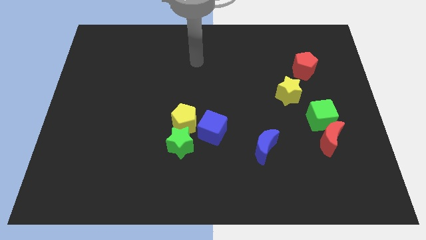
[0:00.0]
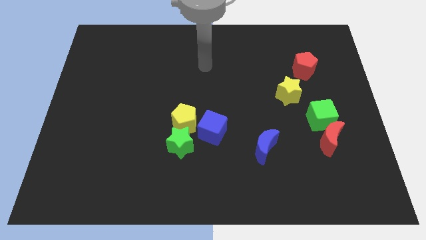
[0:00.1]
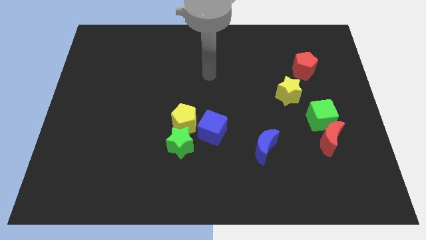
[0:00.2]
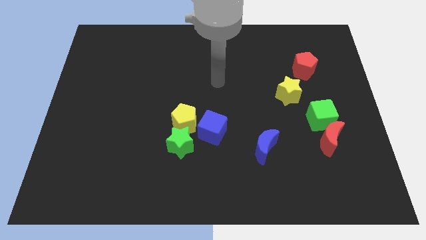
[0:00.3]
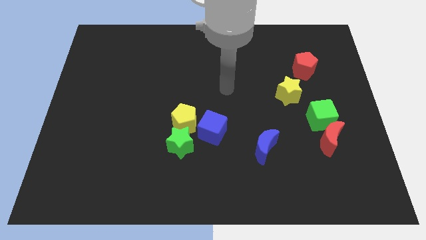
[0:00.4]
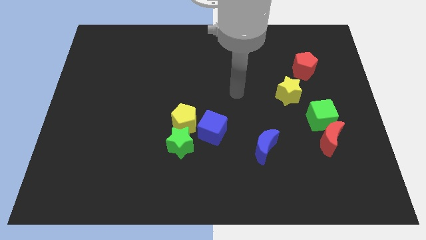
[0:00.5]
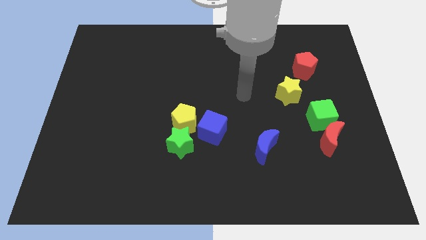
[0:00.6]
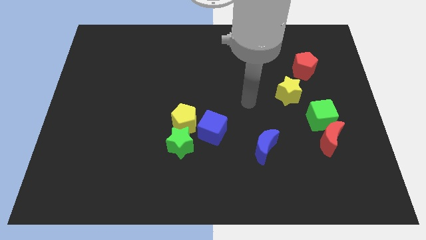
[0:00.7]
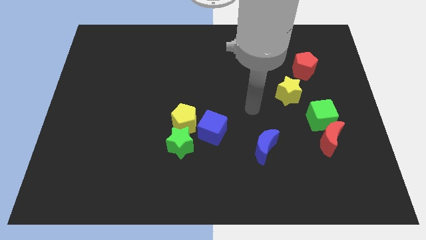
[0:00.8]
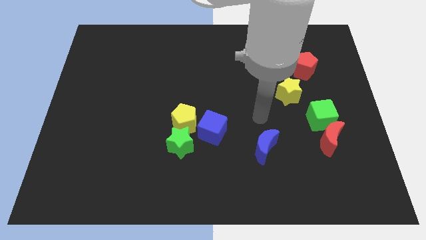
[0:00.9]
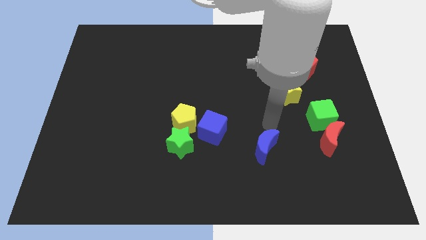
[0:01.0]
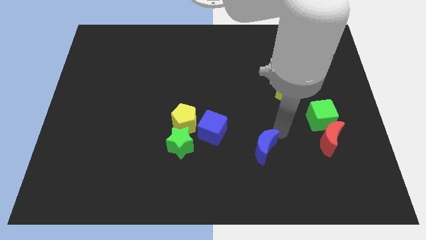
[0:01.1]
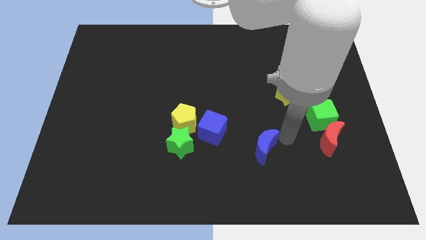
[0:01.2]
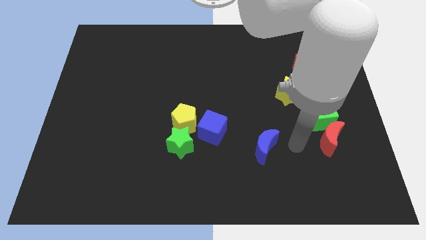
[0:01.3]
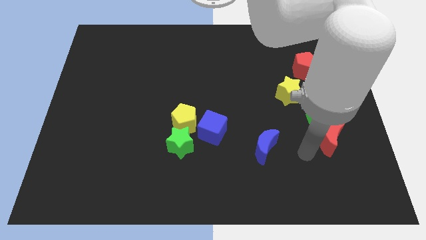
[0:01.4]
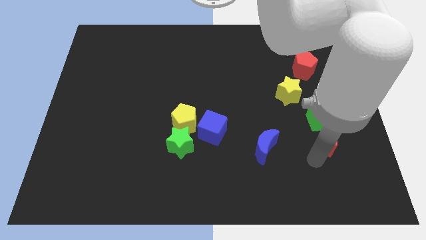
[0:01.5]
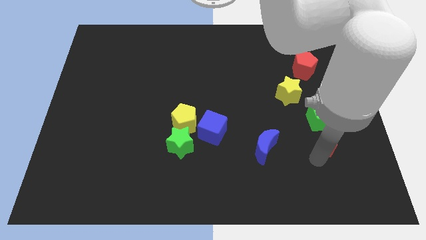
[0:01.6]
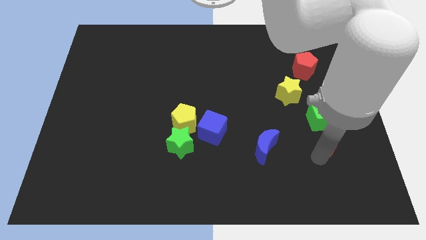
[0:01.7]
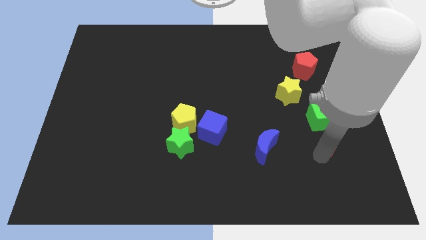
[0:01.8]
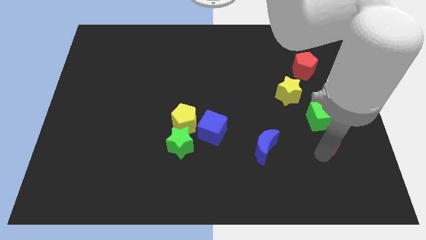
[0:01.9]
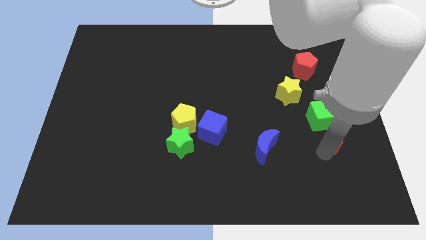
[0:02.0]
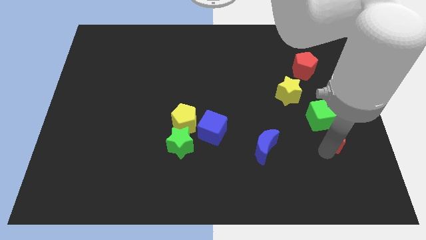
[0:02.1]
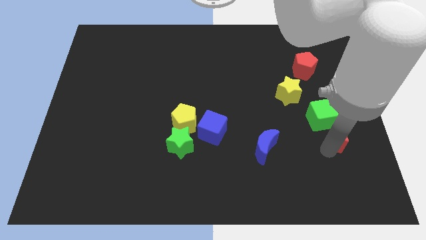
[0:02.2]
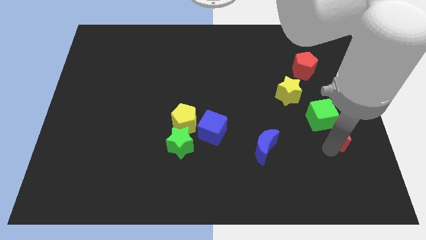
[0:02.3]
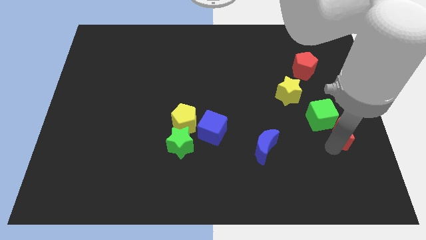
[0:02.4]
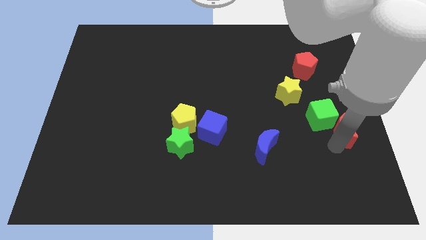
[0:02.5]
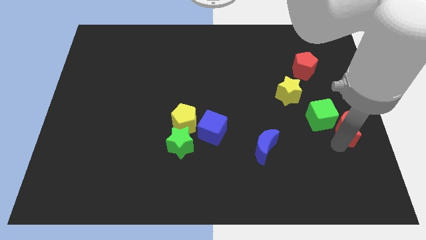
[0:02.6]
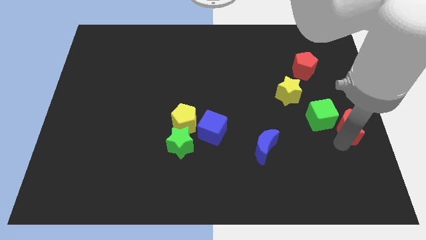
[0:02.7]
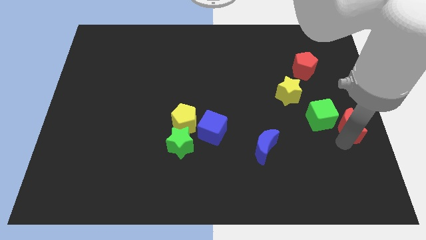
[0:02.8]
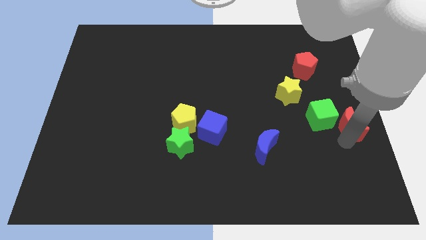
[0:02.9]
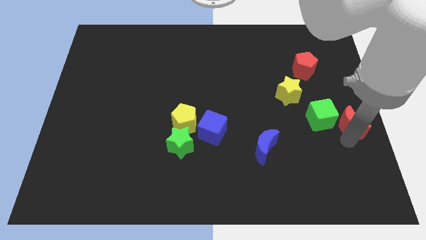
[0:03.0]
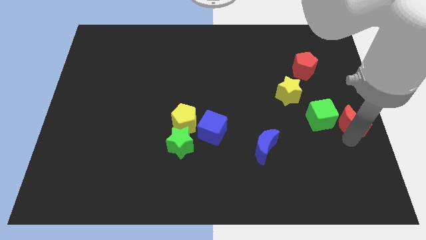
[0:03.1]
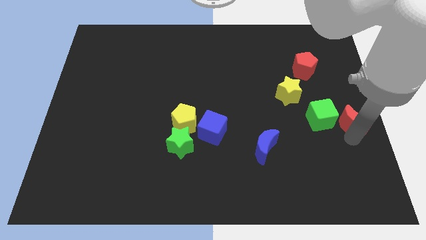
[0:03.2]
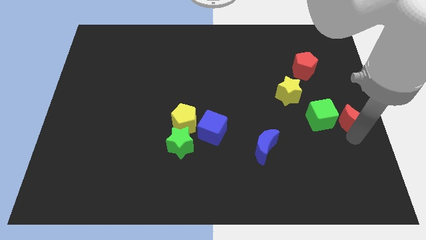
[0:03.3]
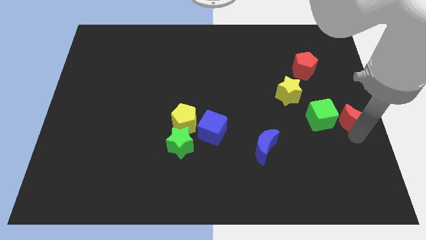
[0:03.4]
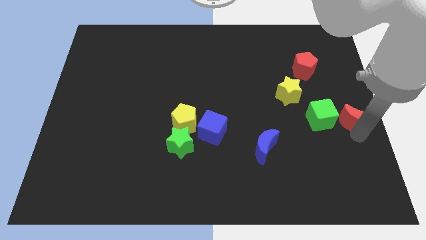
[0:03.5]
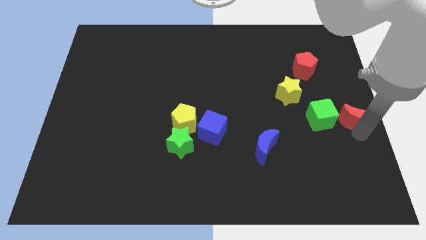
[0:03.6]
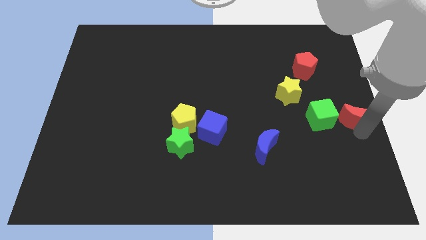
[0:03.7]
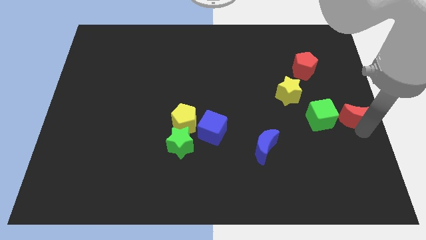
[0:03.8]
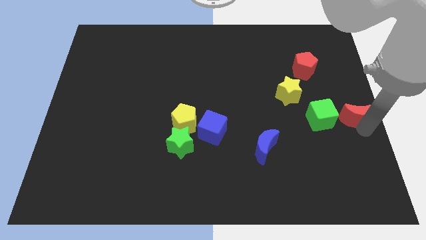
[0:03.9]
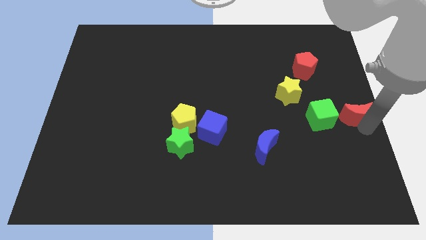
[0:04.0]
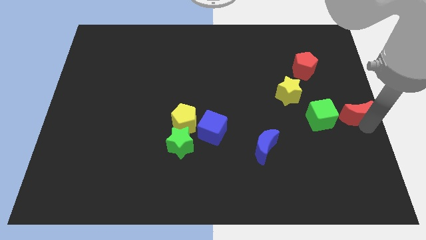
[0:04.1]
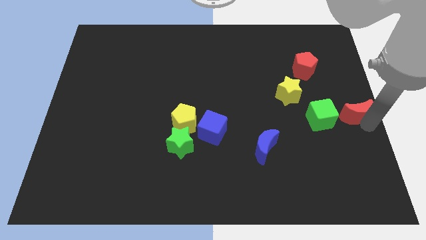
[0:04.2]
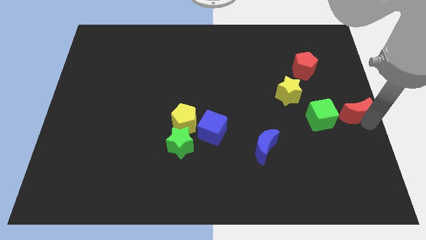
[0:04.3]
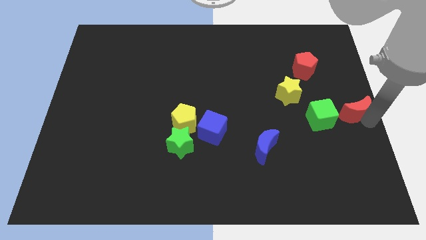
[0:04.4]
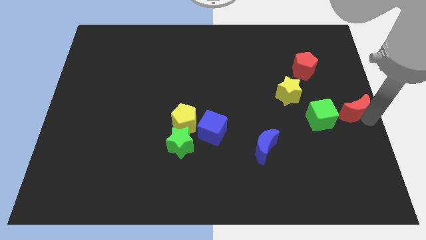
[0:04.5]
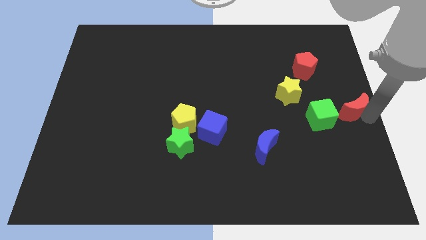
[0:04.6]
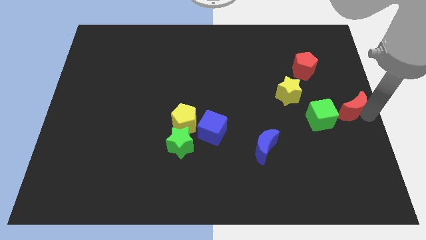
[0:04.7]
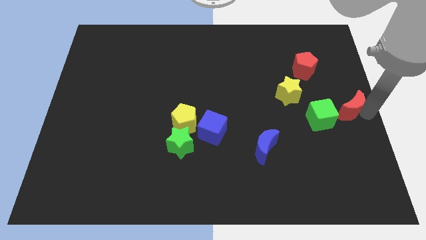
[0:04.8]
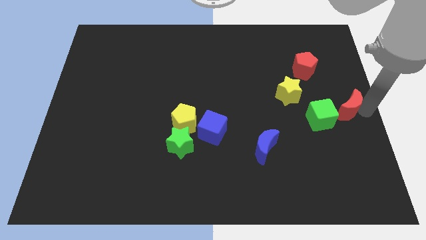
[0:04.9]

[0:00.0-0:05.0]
move the red moon just right of the yellow star

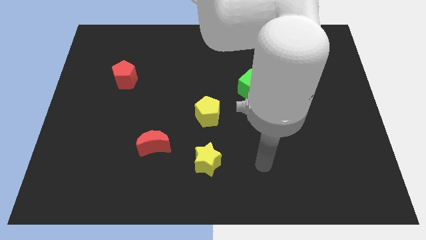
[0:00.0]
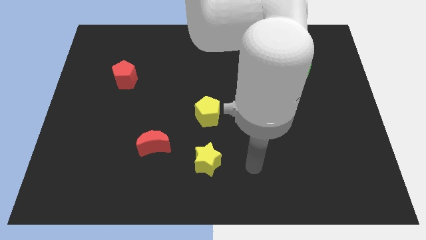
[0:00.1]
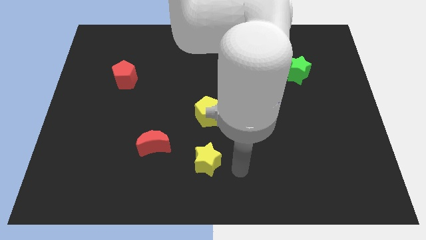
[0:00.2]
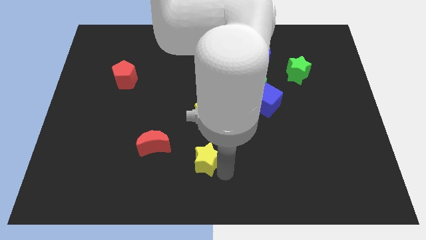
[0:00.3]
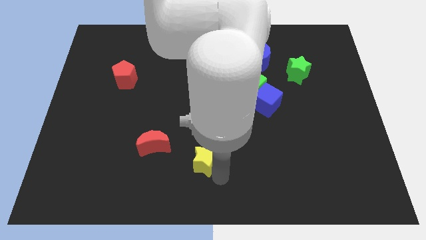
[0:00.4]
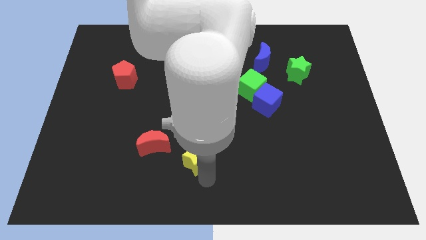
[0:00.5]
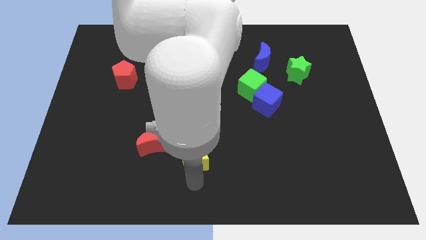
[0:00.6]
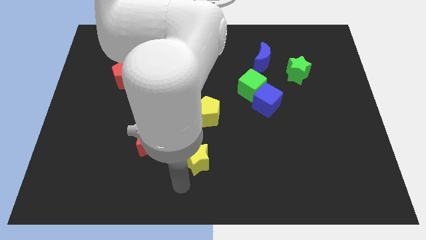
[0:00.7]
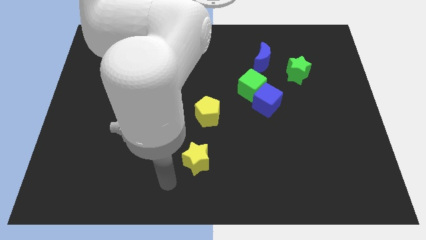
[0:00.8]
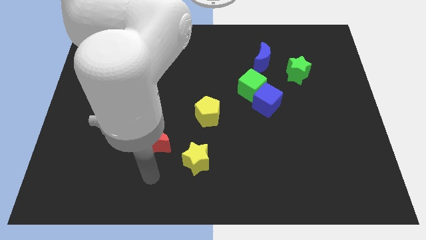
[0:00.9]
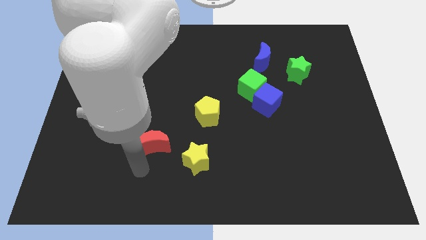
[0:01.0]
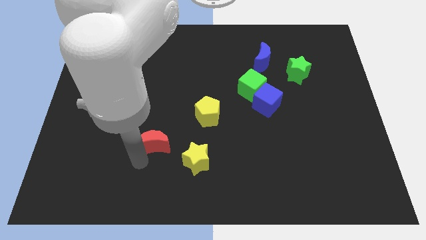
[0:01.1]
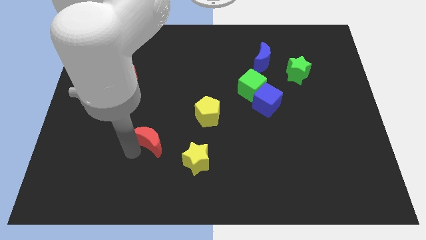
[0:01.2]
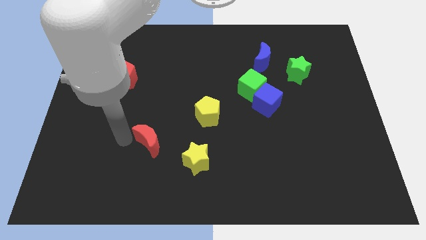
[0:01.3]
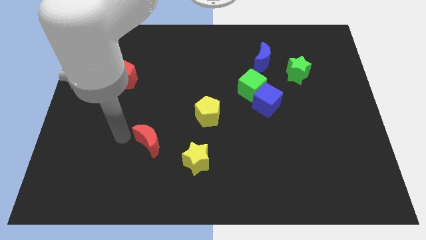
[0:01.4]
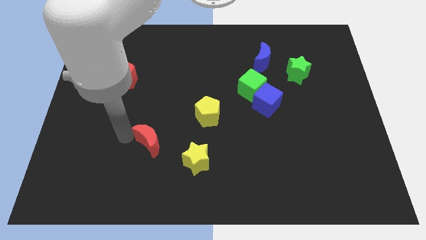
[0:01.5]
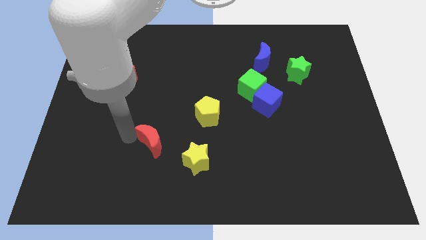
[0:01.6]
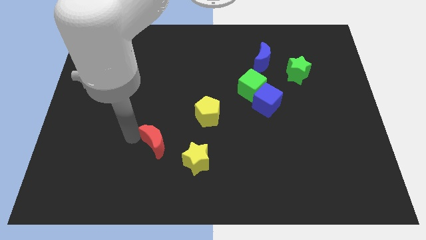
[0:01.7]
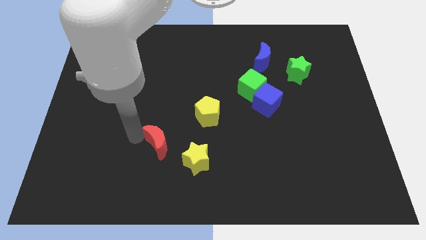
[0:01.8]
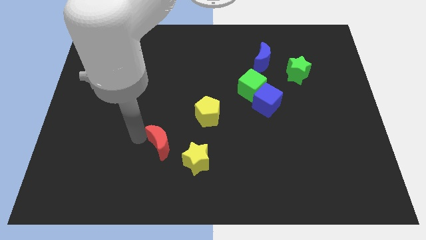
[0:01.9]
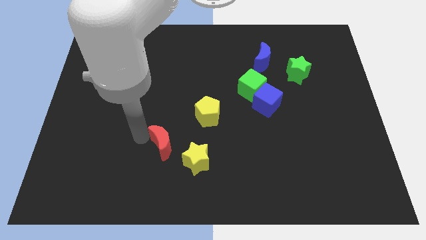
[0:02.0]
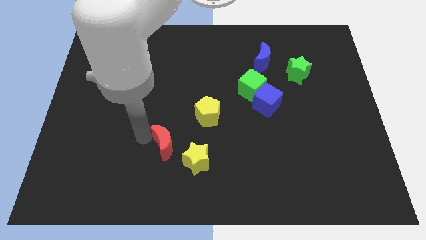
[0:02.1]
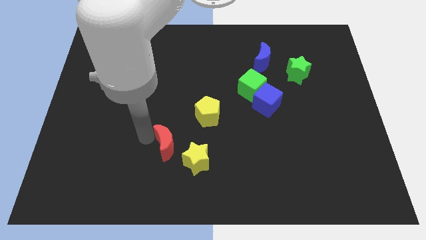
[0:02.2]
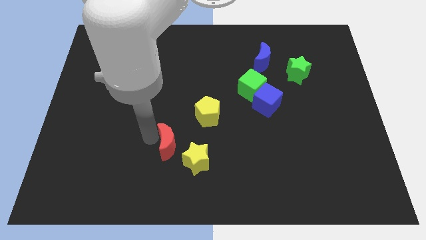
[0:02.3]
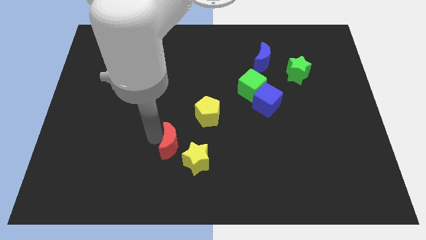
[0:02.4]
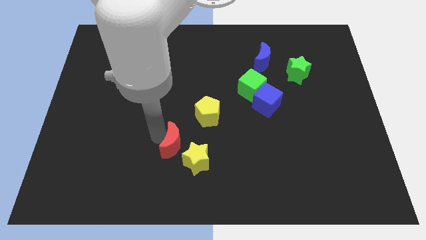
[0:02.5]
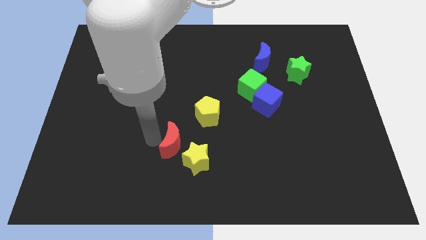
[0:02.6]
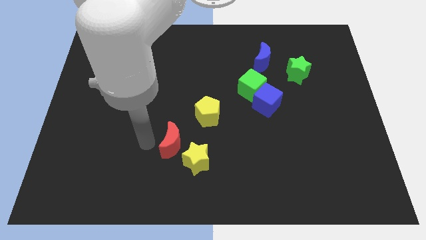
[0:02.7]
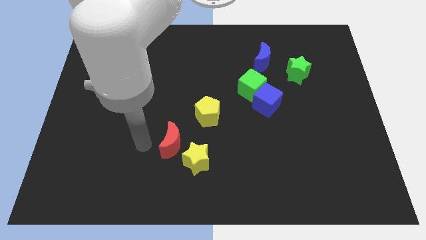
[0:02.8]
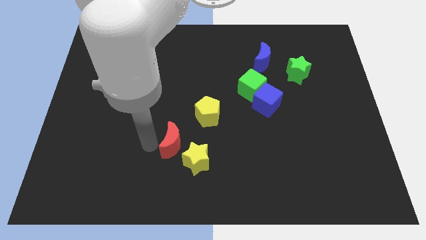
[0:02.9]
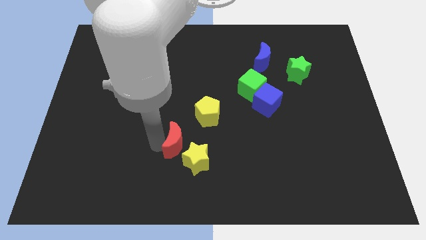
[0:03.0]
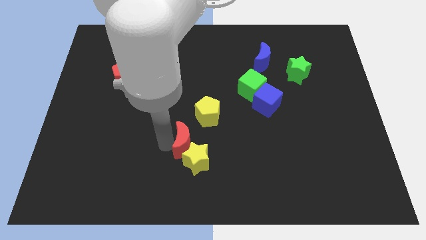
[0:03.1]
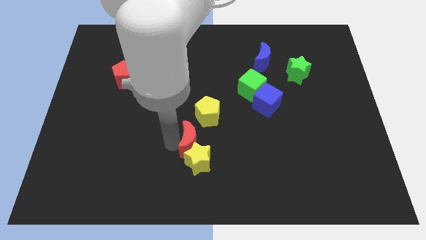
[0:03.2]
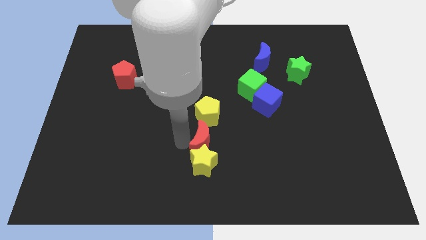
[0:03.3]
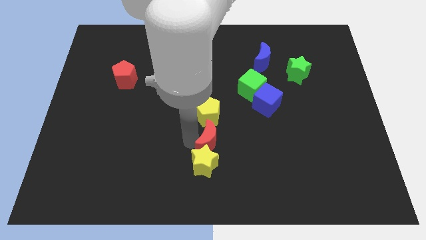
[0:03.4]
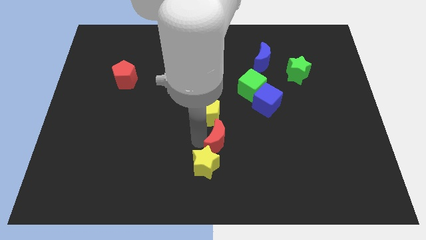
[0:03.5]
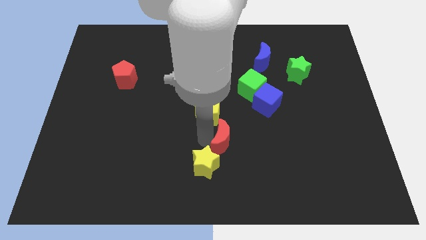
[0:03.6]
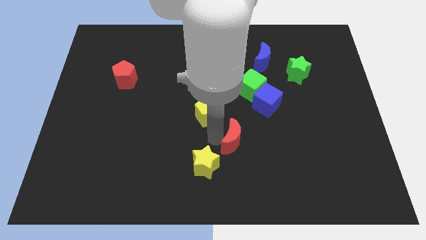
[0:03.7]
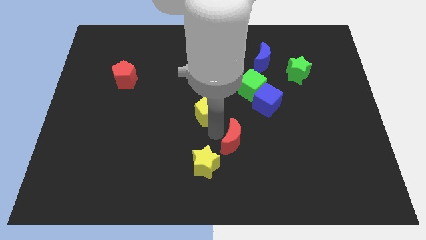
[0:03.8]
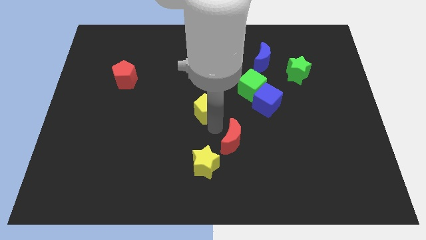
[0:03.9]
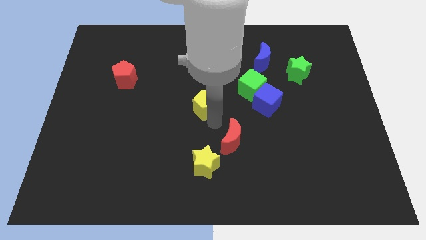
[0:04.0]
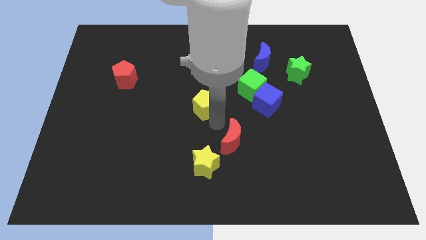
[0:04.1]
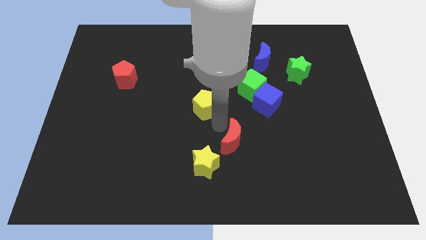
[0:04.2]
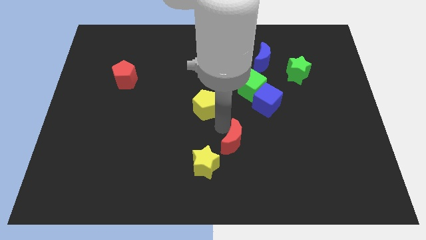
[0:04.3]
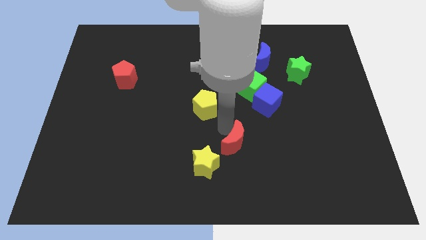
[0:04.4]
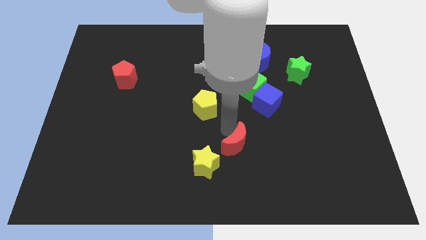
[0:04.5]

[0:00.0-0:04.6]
put the red moon just right of the yellow star
